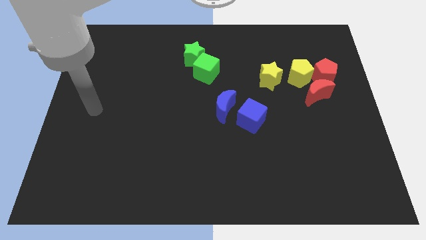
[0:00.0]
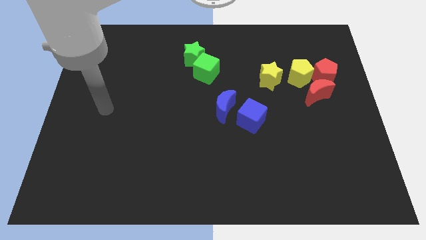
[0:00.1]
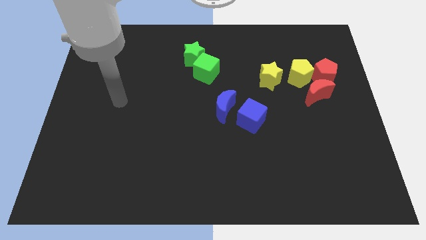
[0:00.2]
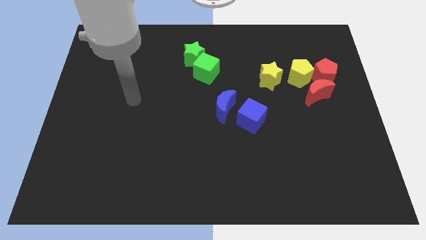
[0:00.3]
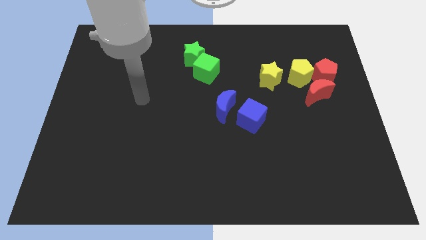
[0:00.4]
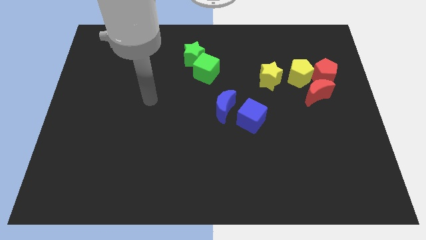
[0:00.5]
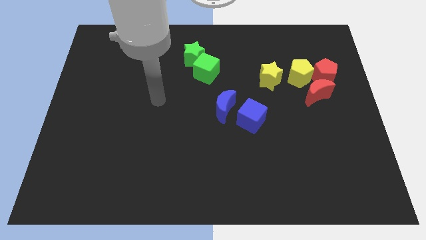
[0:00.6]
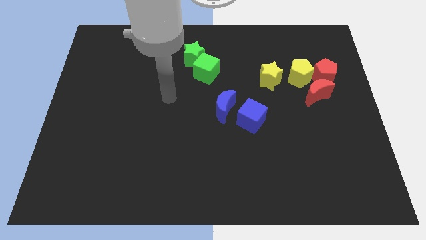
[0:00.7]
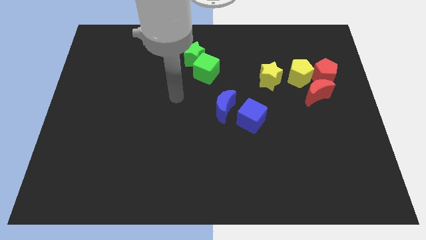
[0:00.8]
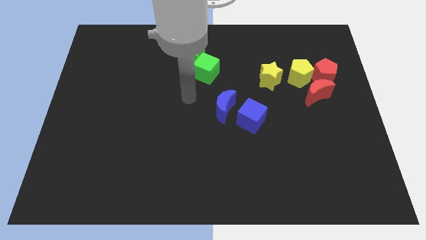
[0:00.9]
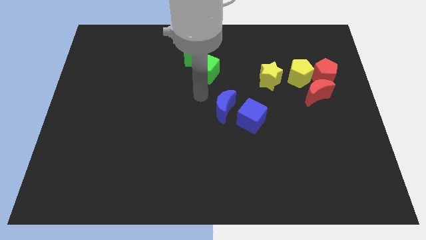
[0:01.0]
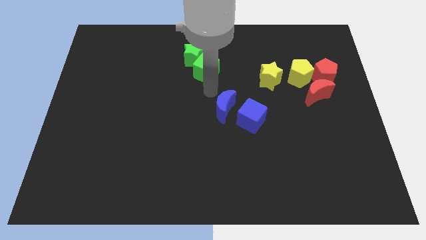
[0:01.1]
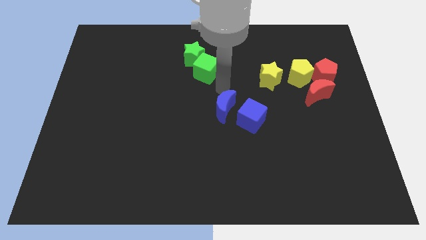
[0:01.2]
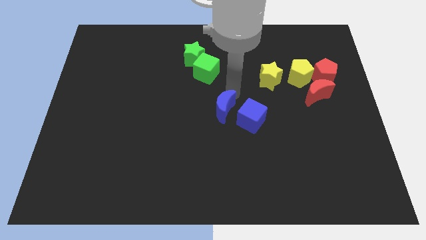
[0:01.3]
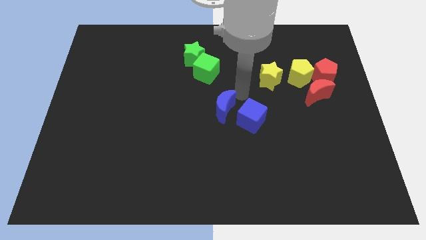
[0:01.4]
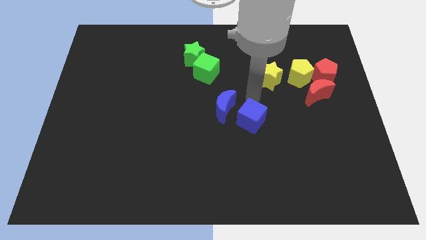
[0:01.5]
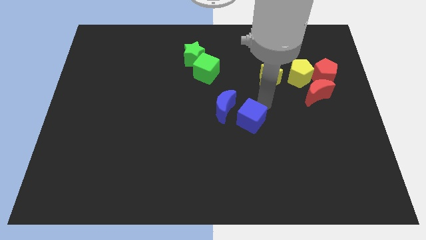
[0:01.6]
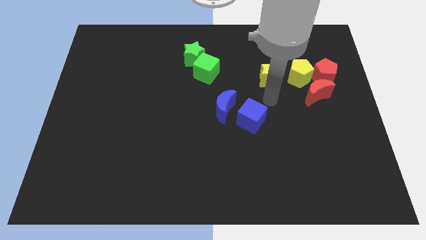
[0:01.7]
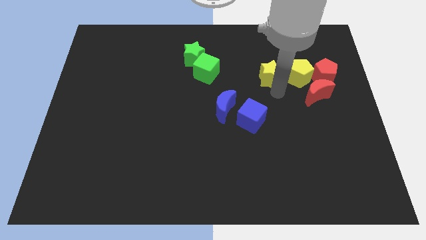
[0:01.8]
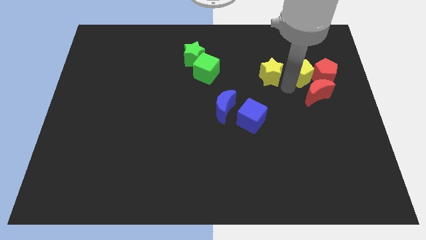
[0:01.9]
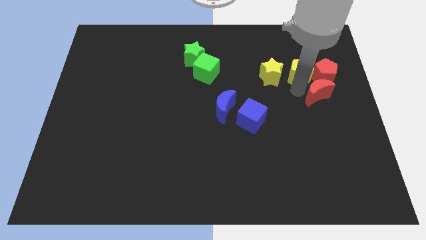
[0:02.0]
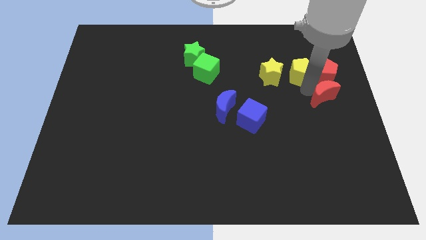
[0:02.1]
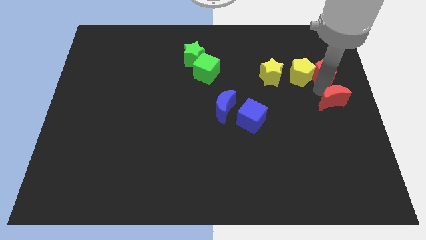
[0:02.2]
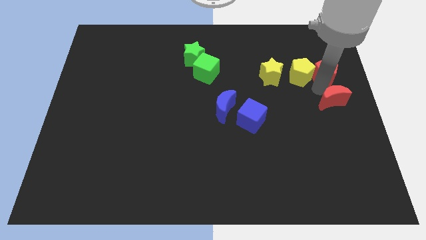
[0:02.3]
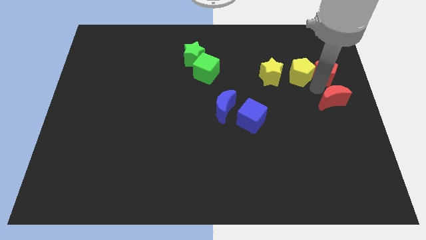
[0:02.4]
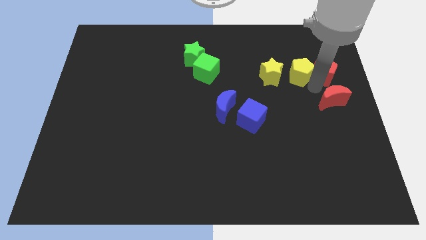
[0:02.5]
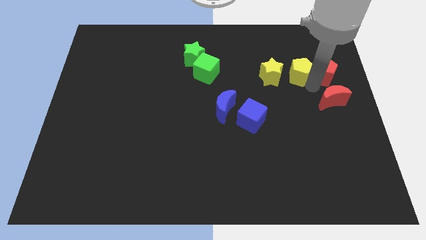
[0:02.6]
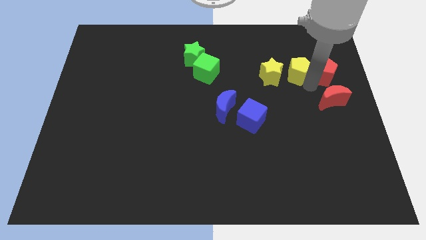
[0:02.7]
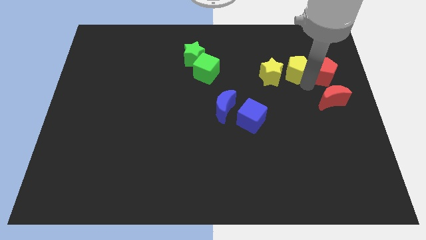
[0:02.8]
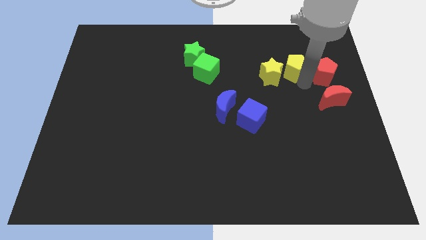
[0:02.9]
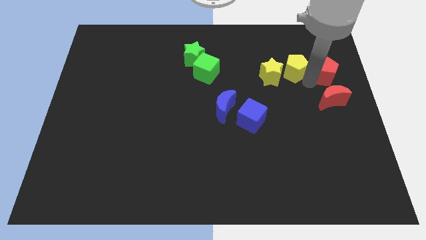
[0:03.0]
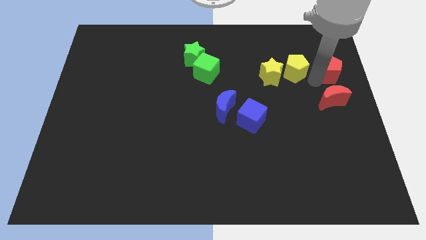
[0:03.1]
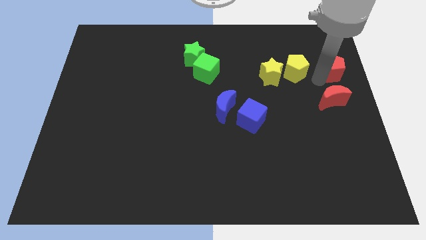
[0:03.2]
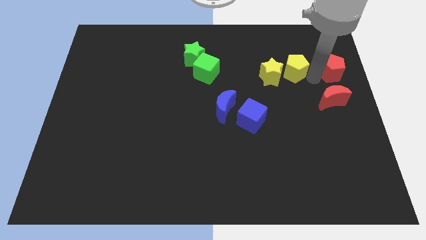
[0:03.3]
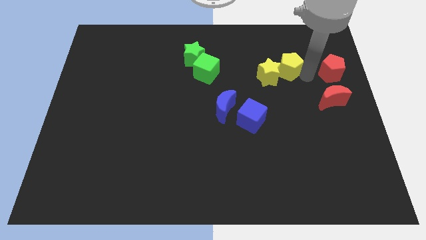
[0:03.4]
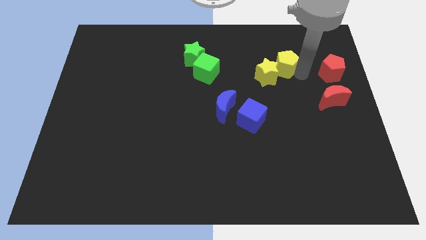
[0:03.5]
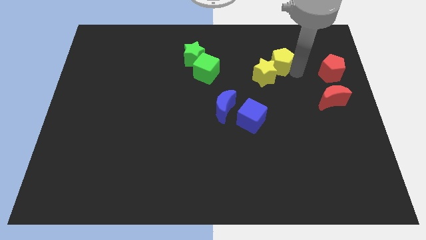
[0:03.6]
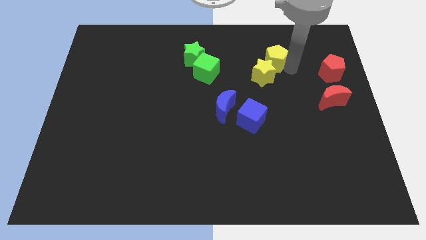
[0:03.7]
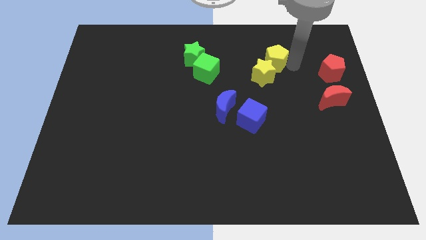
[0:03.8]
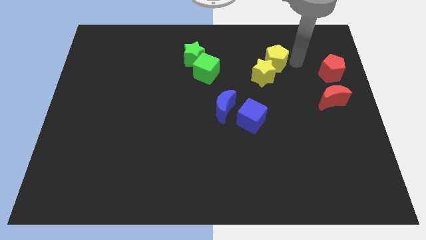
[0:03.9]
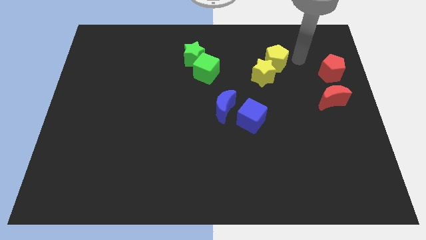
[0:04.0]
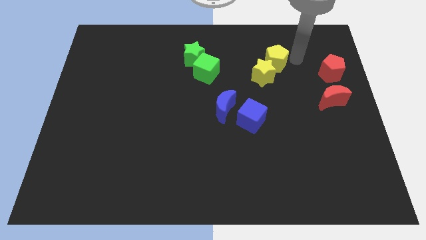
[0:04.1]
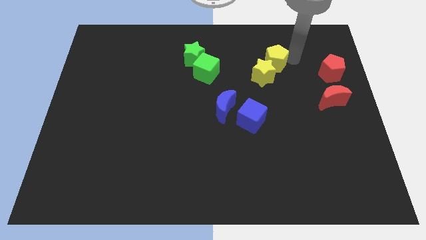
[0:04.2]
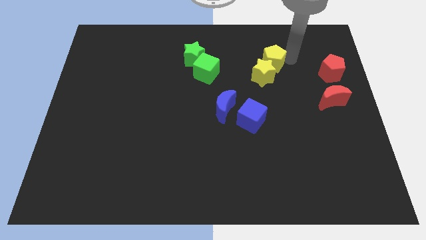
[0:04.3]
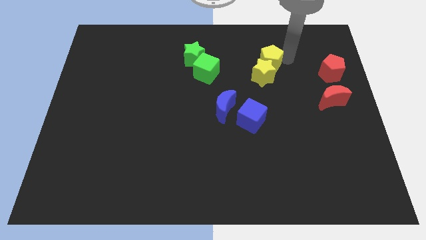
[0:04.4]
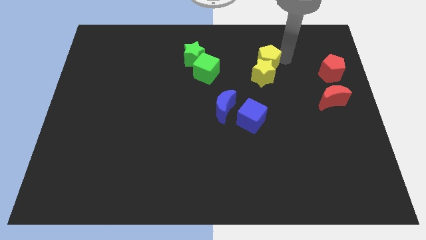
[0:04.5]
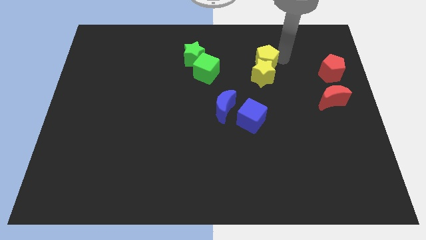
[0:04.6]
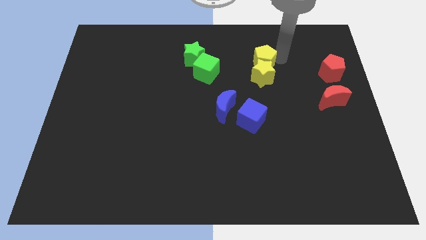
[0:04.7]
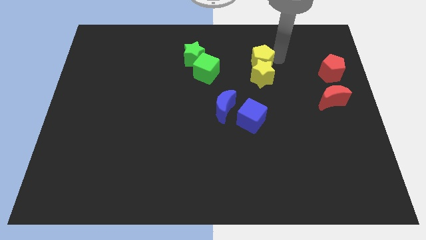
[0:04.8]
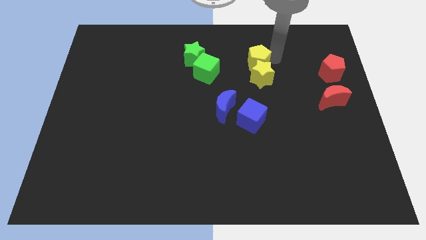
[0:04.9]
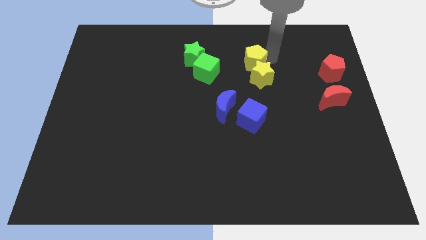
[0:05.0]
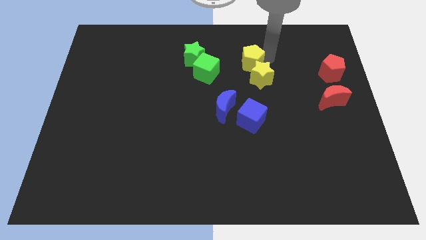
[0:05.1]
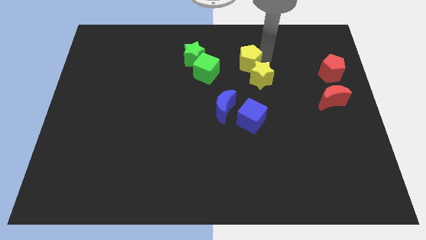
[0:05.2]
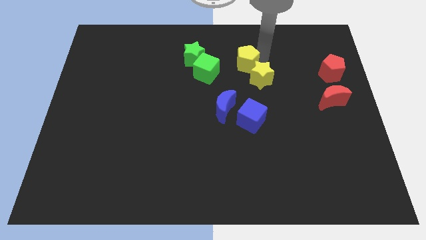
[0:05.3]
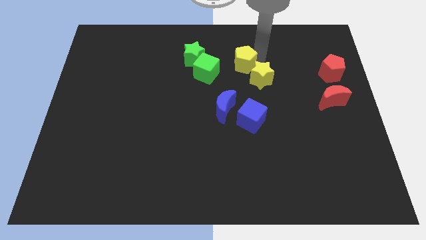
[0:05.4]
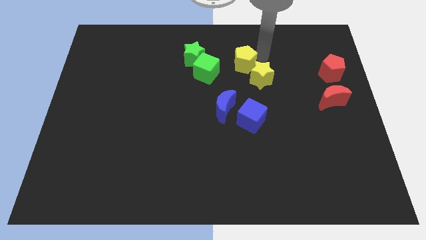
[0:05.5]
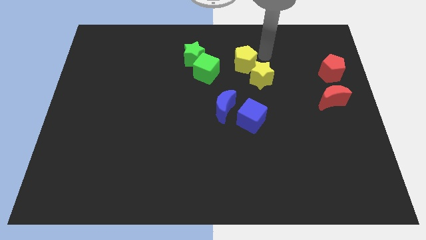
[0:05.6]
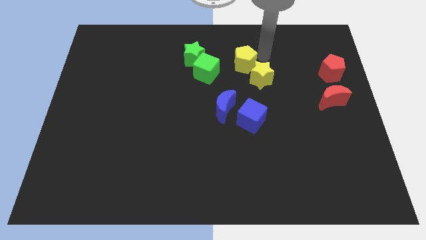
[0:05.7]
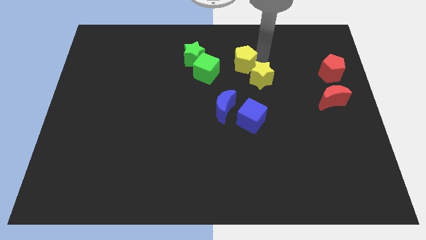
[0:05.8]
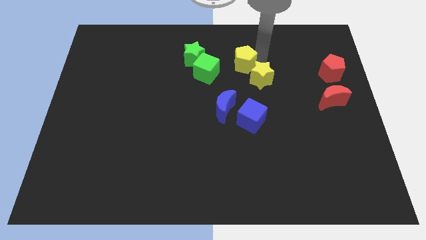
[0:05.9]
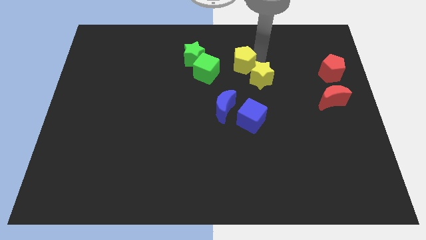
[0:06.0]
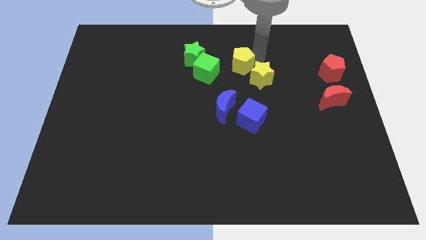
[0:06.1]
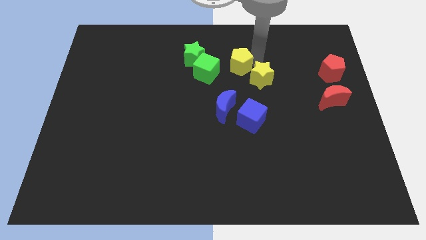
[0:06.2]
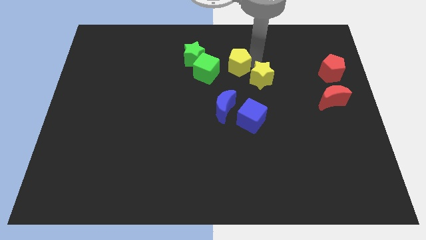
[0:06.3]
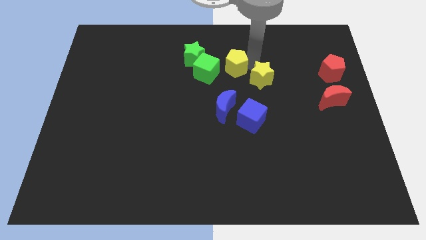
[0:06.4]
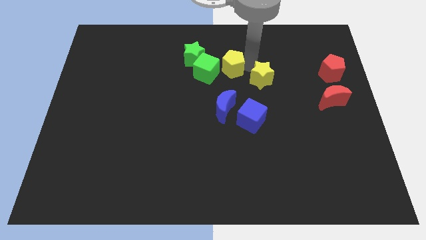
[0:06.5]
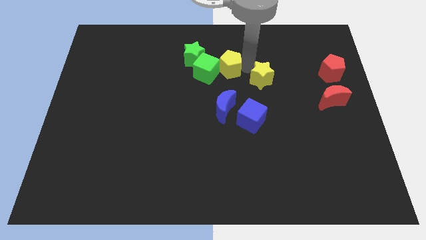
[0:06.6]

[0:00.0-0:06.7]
slide the yellow pentagon towards the green cube

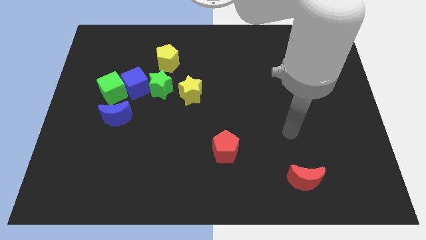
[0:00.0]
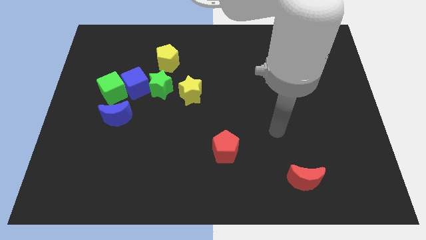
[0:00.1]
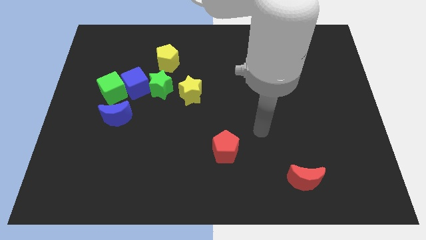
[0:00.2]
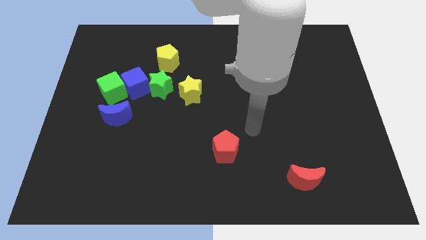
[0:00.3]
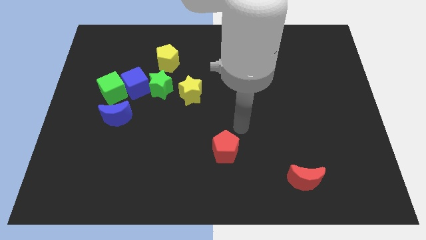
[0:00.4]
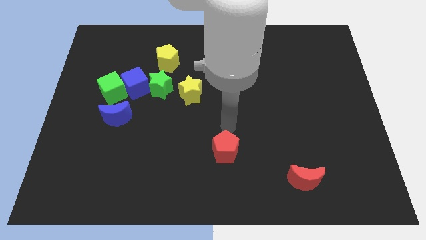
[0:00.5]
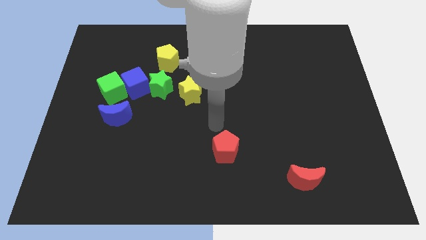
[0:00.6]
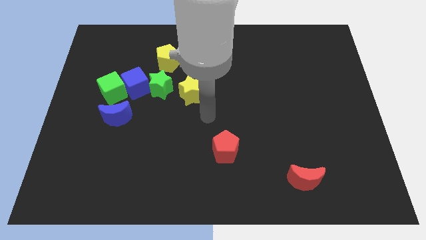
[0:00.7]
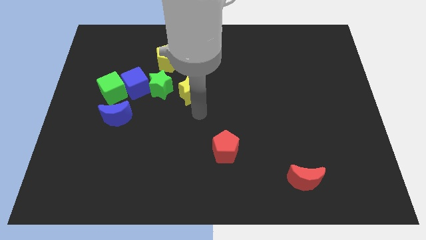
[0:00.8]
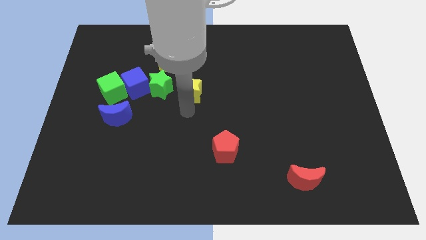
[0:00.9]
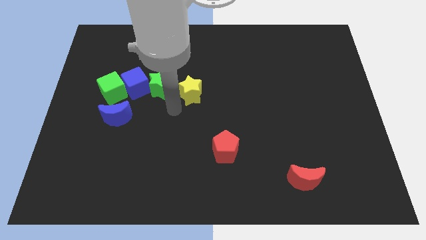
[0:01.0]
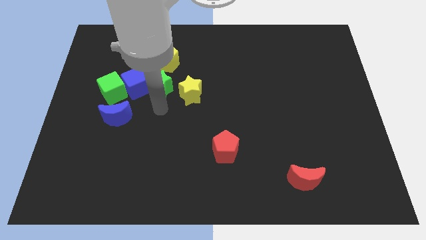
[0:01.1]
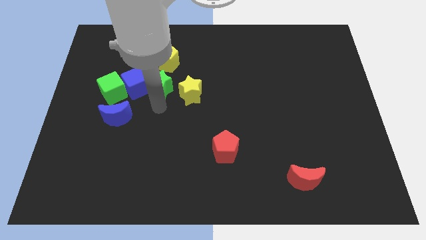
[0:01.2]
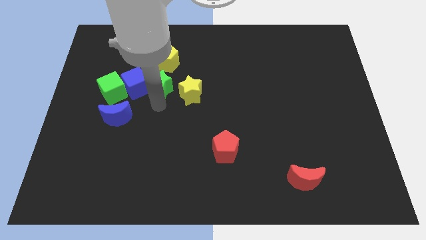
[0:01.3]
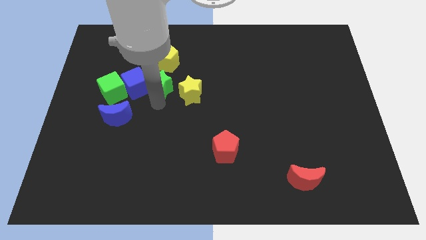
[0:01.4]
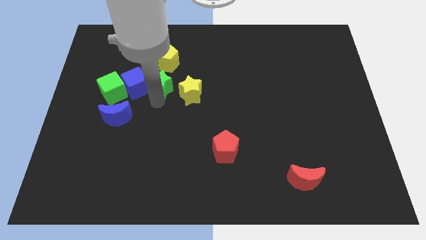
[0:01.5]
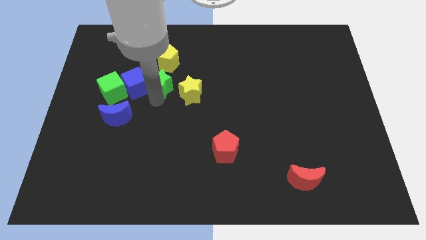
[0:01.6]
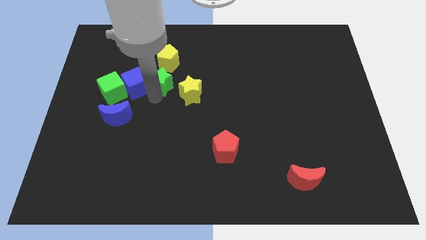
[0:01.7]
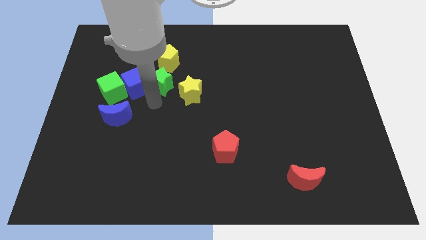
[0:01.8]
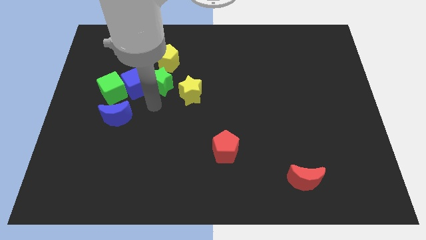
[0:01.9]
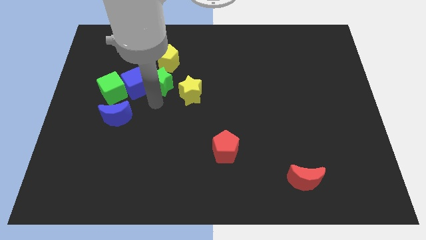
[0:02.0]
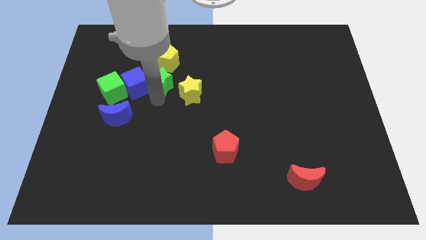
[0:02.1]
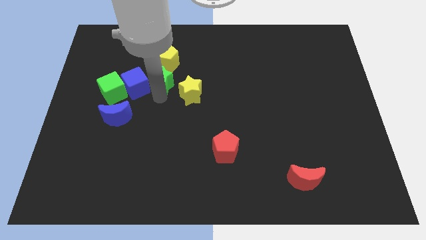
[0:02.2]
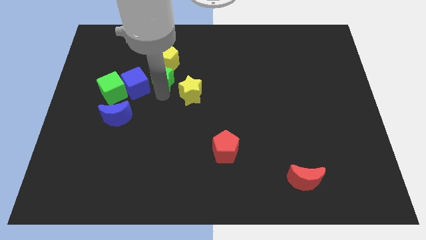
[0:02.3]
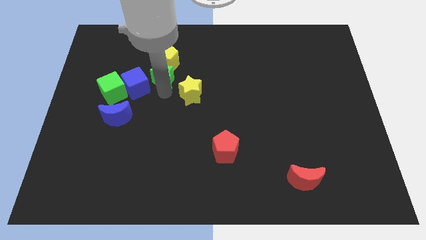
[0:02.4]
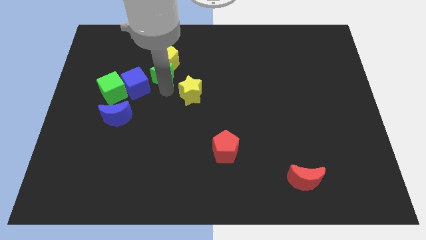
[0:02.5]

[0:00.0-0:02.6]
slide the green star close to the yellow pentagon
